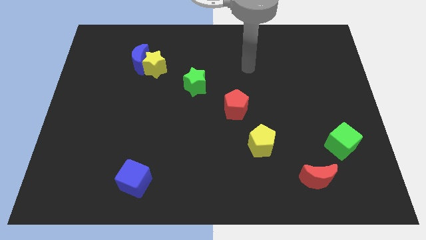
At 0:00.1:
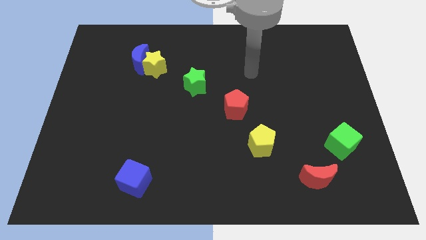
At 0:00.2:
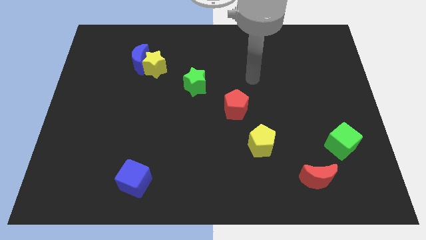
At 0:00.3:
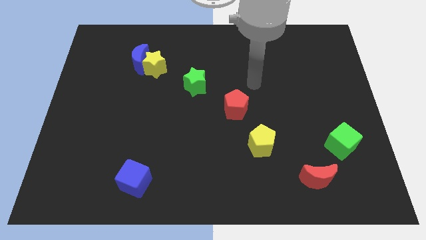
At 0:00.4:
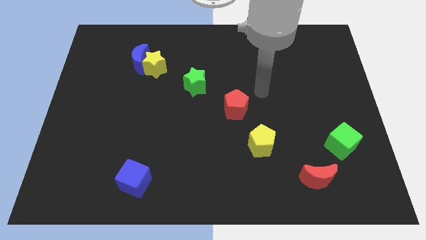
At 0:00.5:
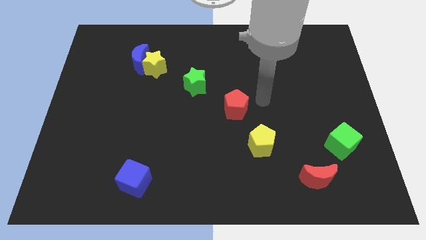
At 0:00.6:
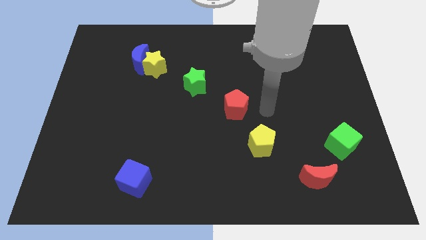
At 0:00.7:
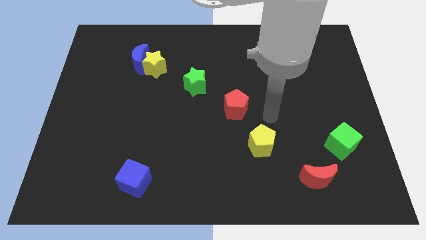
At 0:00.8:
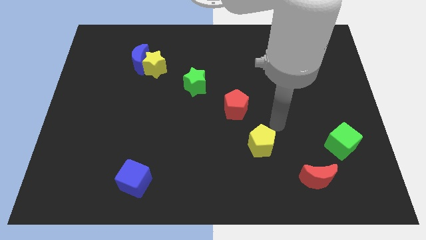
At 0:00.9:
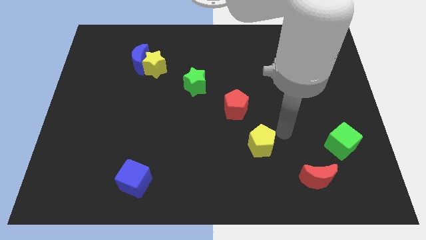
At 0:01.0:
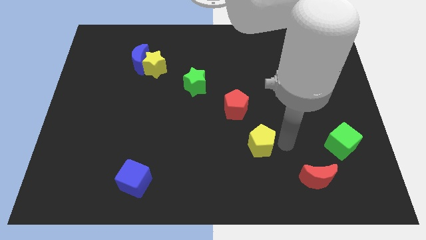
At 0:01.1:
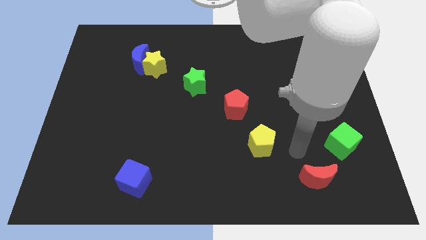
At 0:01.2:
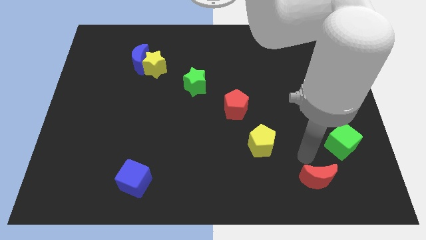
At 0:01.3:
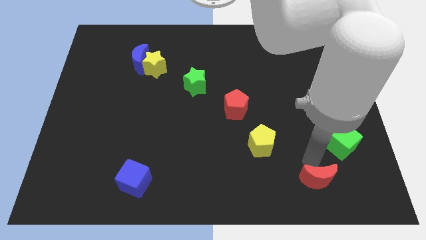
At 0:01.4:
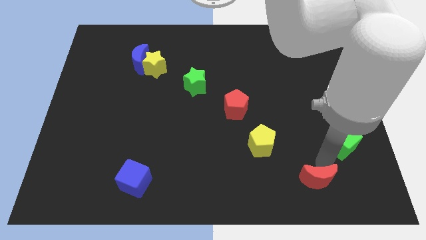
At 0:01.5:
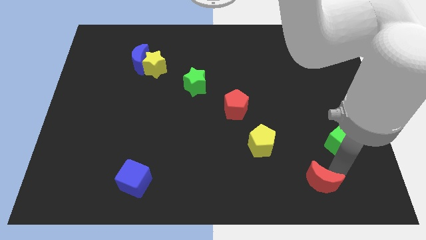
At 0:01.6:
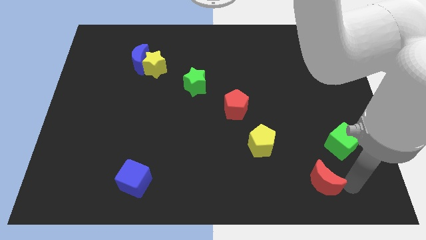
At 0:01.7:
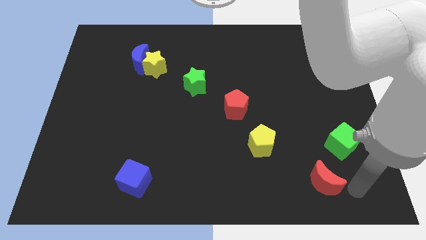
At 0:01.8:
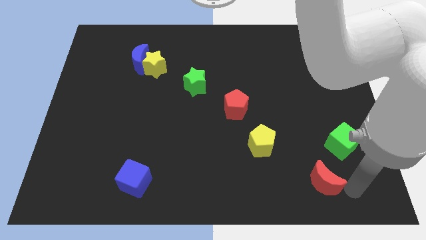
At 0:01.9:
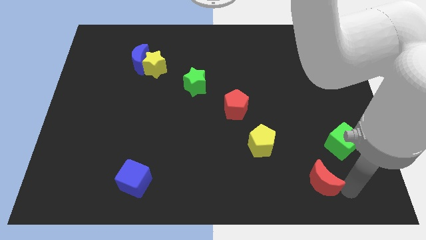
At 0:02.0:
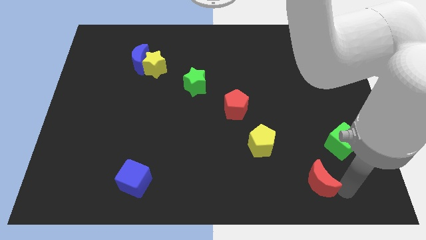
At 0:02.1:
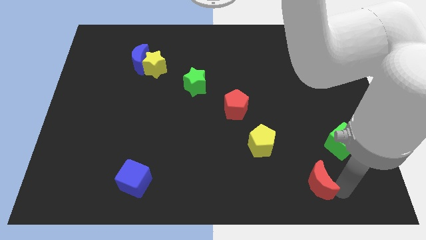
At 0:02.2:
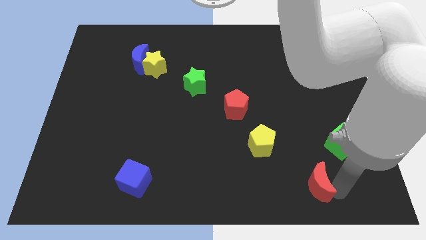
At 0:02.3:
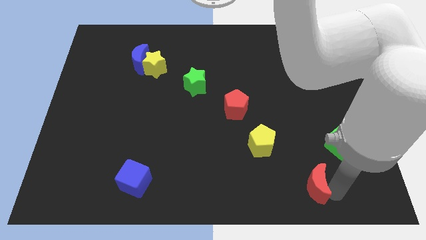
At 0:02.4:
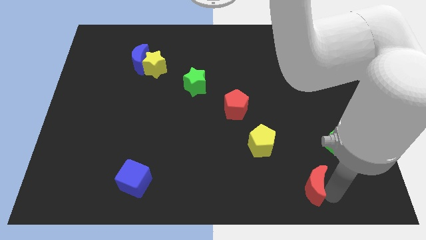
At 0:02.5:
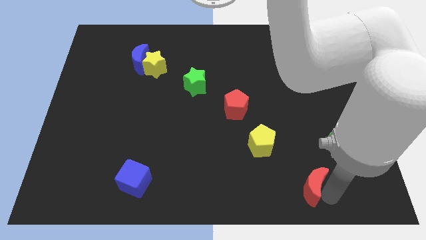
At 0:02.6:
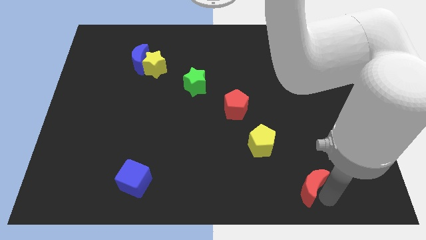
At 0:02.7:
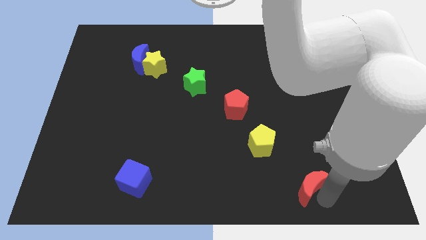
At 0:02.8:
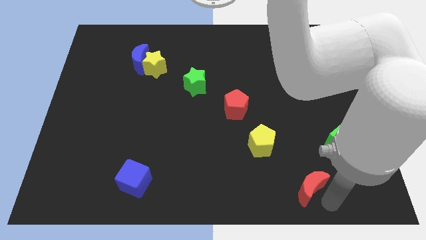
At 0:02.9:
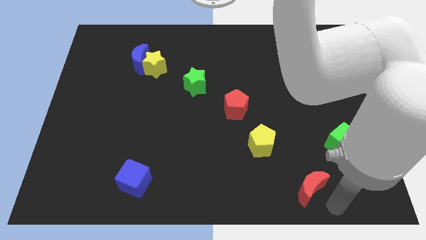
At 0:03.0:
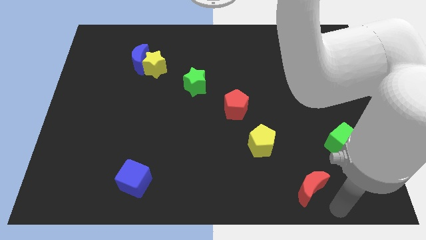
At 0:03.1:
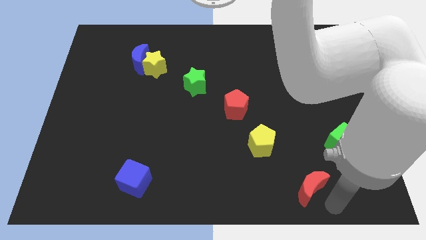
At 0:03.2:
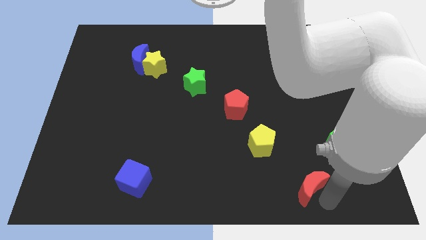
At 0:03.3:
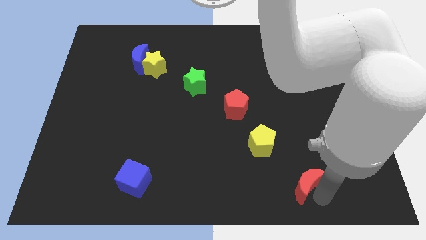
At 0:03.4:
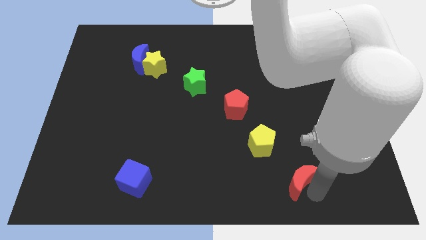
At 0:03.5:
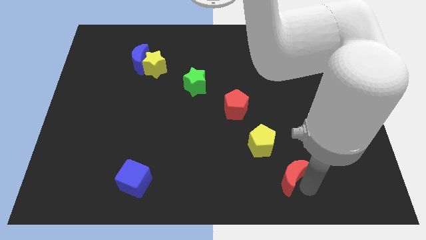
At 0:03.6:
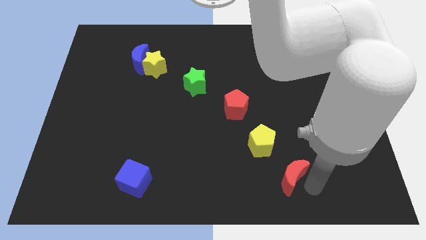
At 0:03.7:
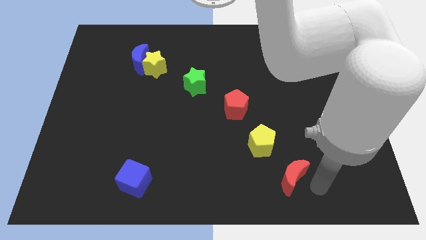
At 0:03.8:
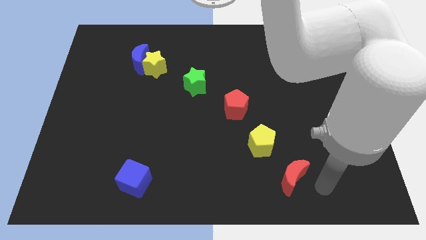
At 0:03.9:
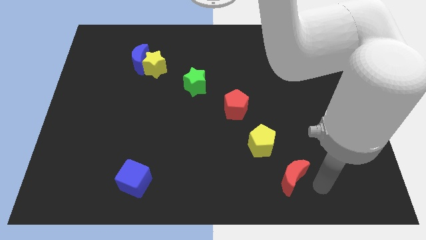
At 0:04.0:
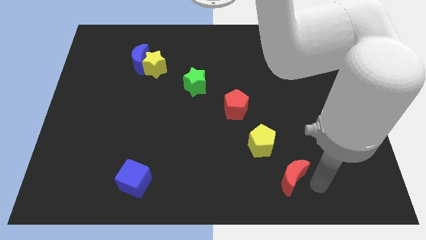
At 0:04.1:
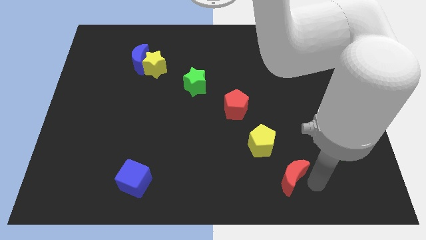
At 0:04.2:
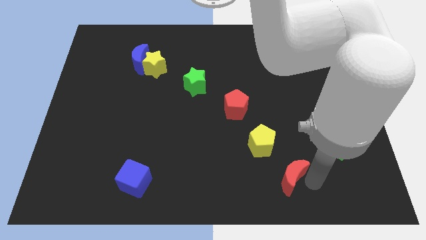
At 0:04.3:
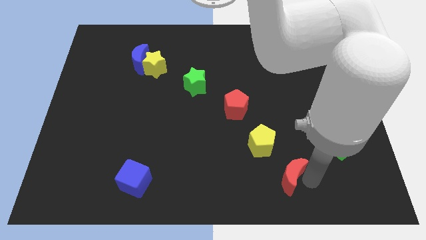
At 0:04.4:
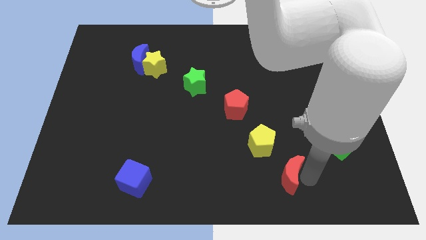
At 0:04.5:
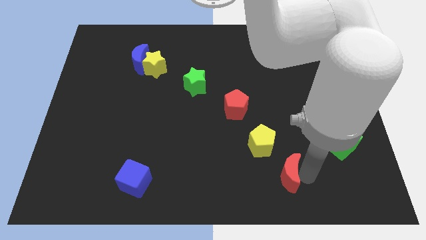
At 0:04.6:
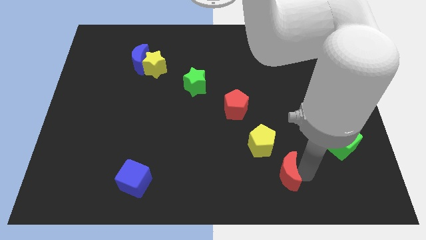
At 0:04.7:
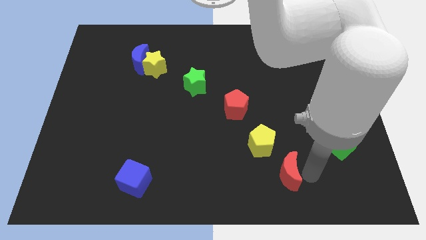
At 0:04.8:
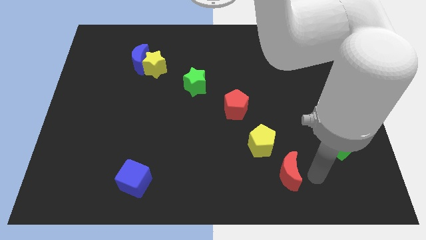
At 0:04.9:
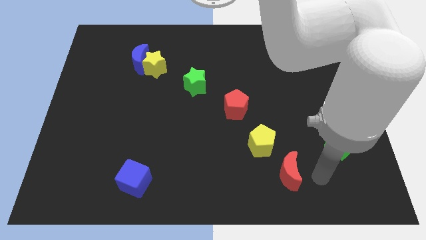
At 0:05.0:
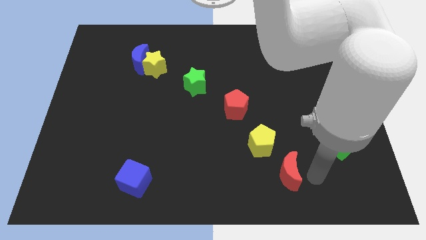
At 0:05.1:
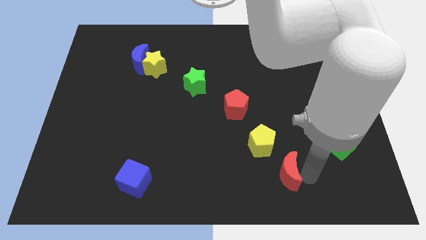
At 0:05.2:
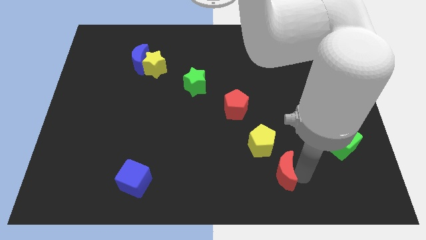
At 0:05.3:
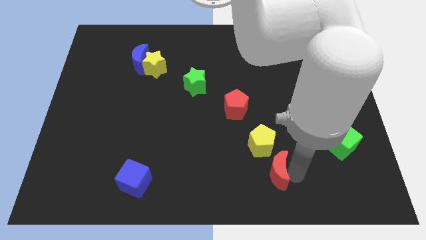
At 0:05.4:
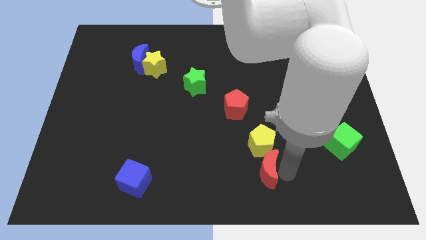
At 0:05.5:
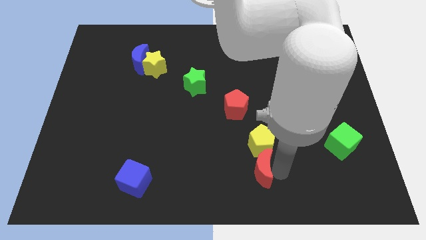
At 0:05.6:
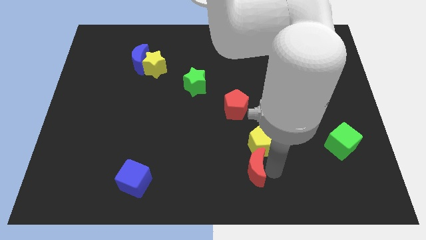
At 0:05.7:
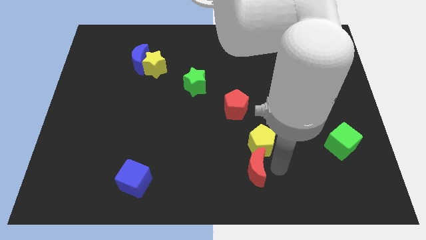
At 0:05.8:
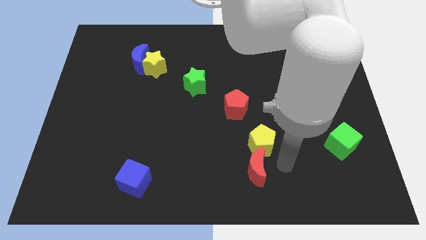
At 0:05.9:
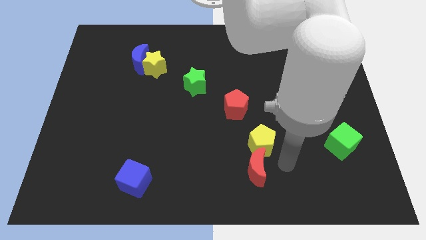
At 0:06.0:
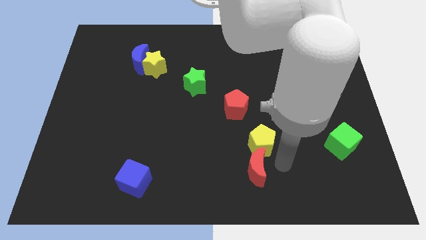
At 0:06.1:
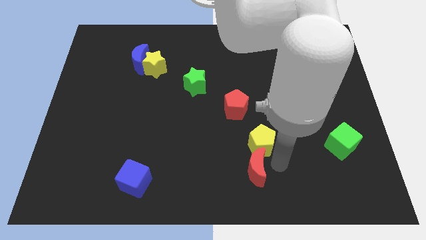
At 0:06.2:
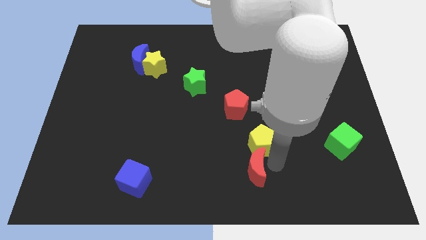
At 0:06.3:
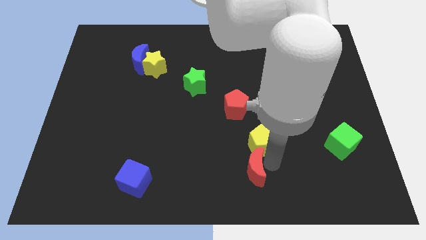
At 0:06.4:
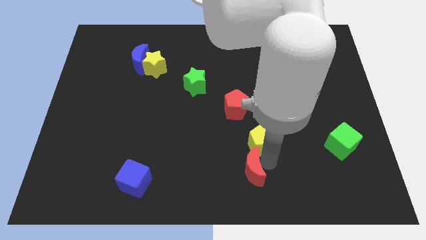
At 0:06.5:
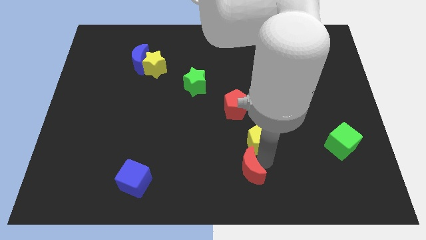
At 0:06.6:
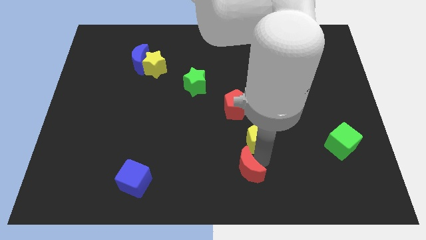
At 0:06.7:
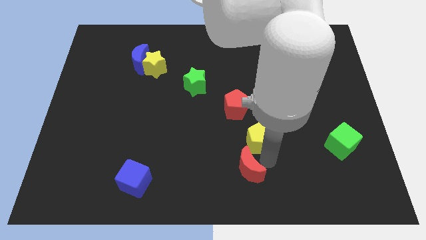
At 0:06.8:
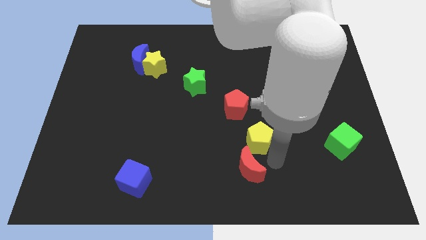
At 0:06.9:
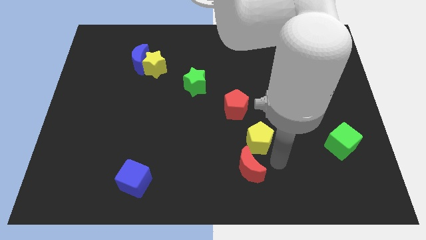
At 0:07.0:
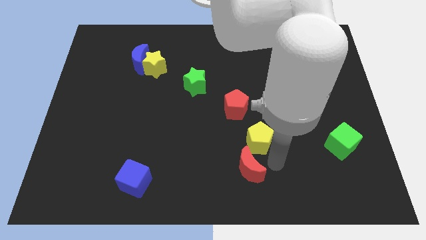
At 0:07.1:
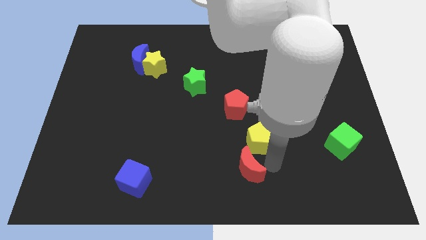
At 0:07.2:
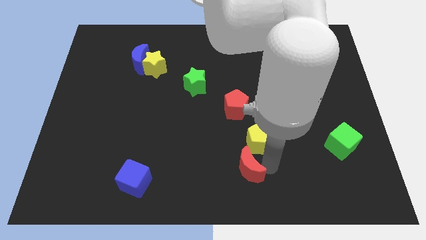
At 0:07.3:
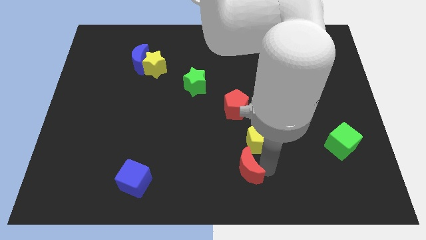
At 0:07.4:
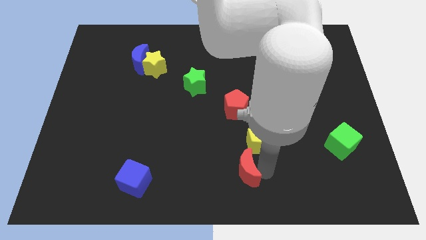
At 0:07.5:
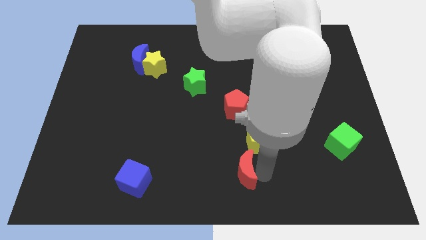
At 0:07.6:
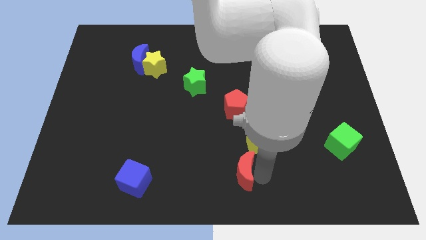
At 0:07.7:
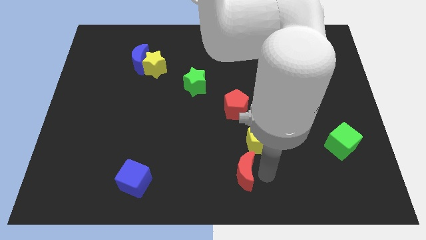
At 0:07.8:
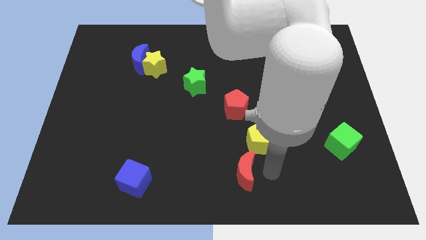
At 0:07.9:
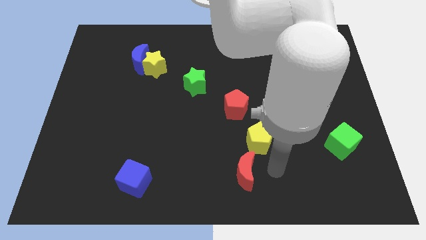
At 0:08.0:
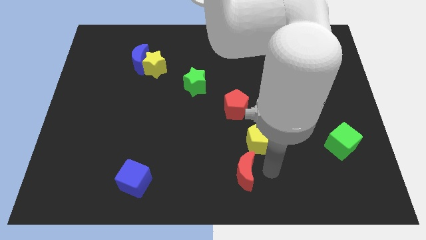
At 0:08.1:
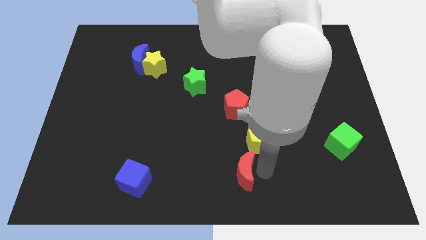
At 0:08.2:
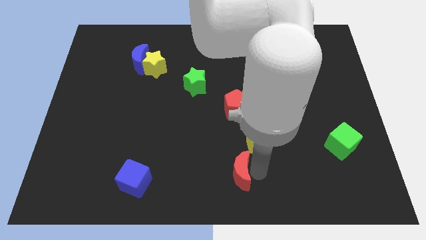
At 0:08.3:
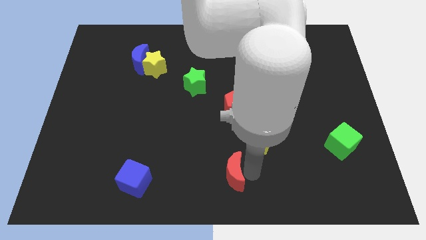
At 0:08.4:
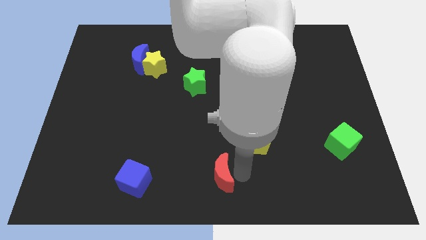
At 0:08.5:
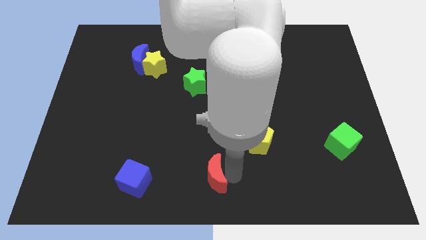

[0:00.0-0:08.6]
move the red moon to the left
